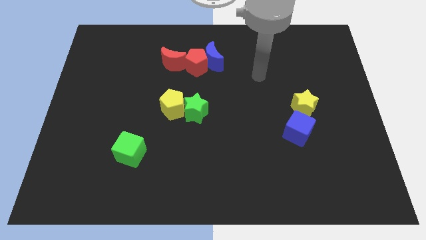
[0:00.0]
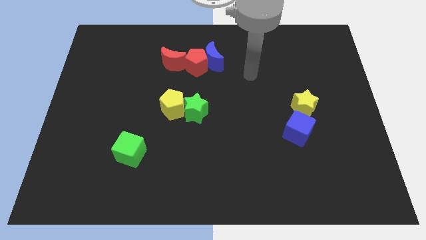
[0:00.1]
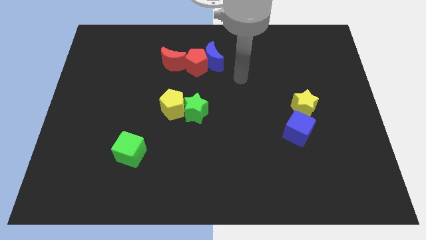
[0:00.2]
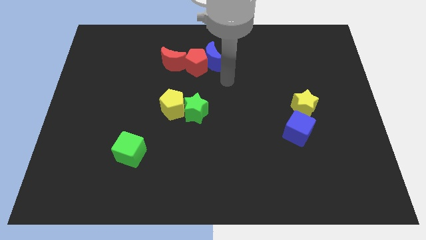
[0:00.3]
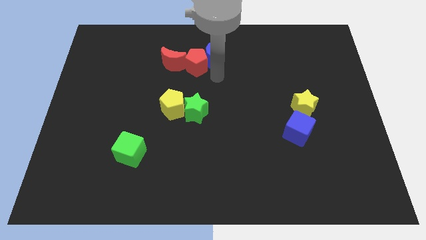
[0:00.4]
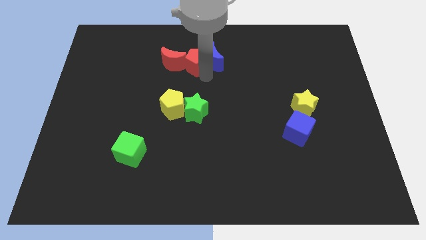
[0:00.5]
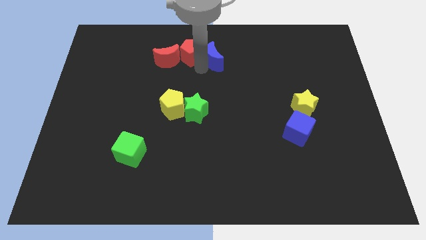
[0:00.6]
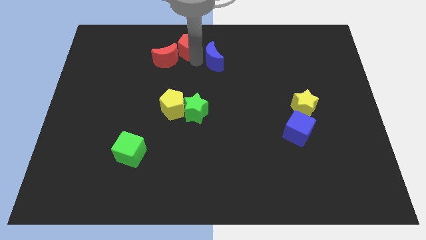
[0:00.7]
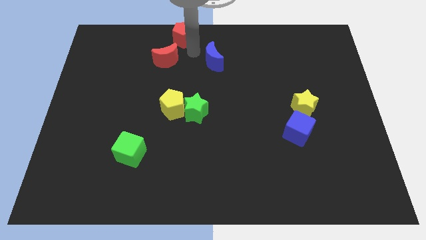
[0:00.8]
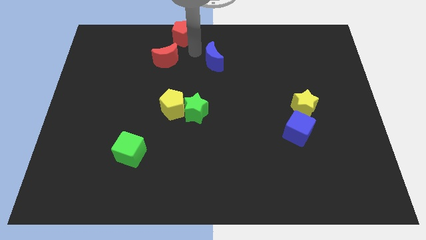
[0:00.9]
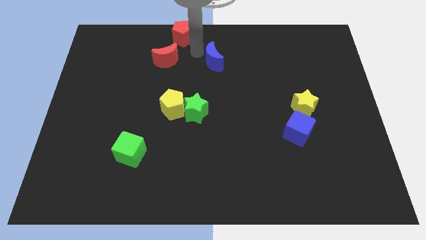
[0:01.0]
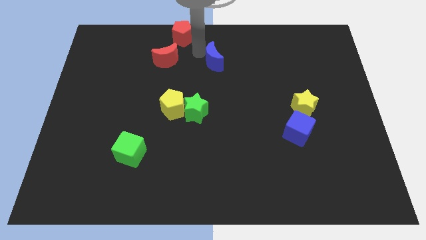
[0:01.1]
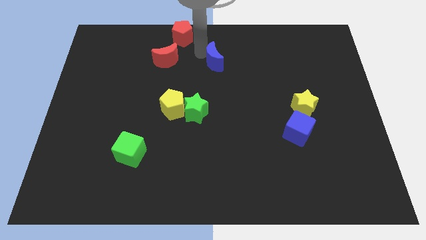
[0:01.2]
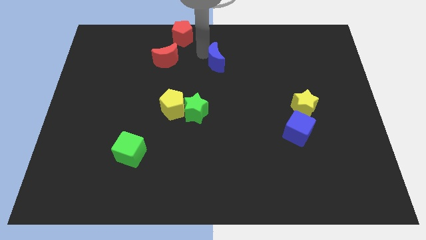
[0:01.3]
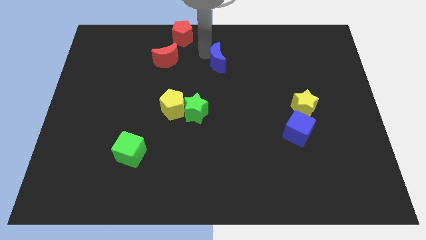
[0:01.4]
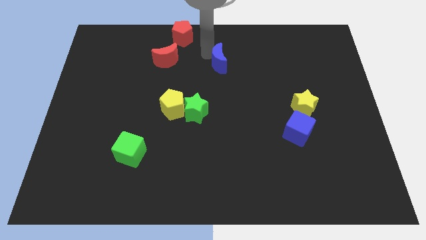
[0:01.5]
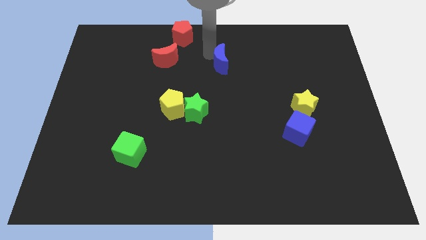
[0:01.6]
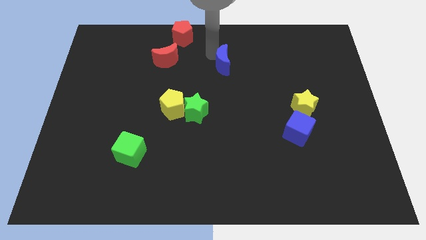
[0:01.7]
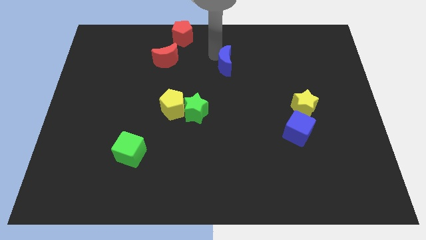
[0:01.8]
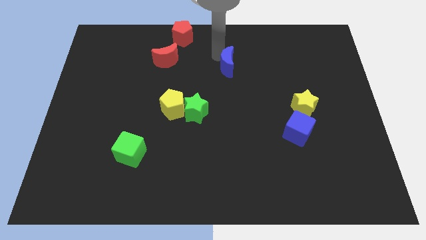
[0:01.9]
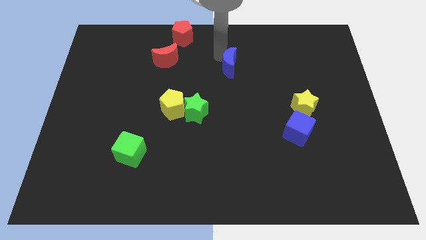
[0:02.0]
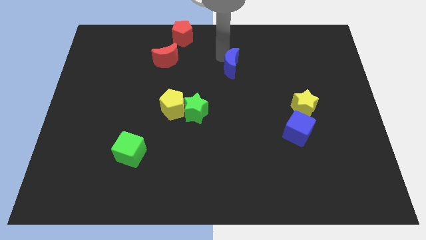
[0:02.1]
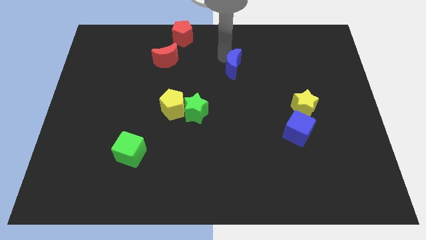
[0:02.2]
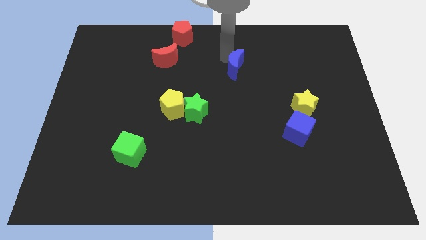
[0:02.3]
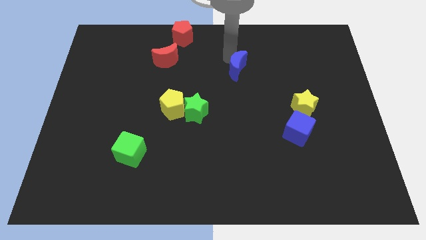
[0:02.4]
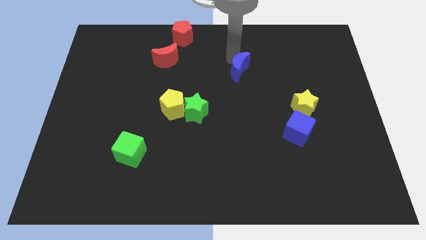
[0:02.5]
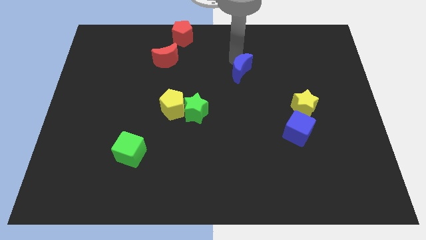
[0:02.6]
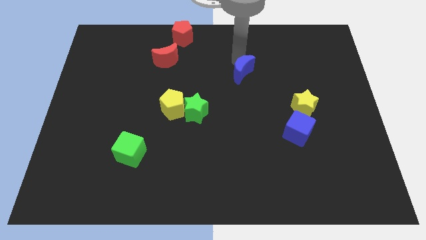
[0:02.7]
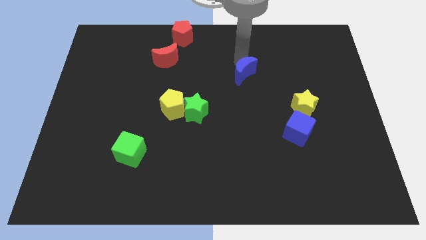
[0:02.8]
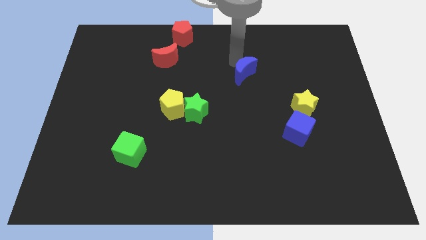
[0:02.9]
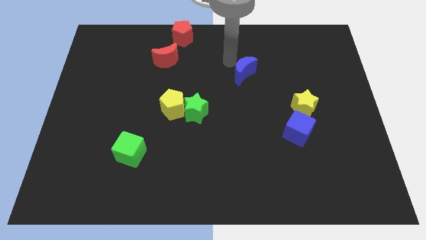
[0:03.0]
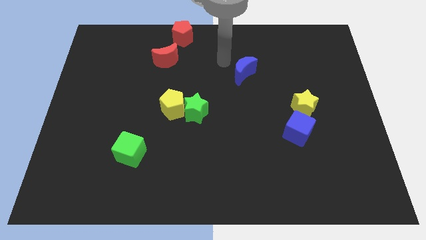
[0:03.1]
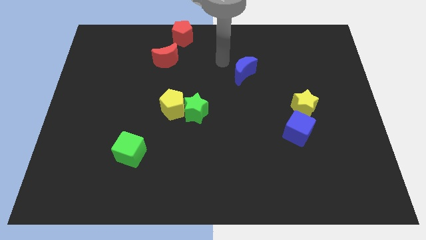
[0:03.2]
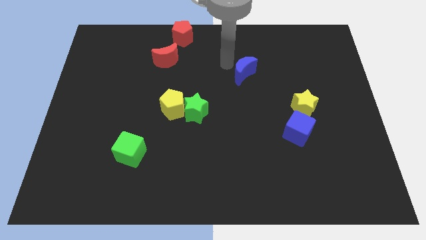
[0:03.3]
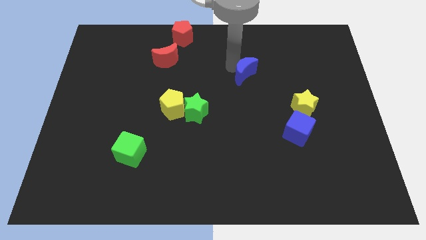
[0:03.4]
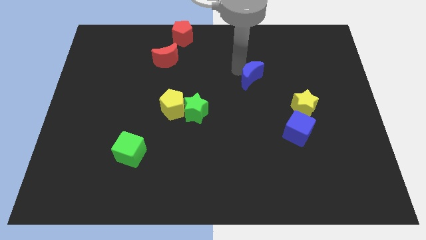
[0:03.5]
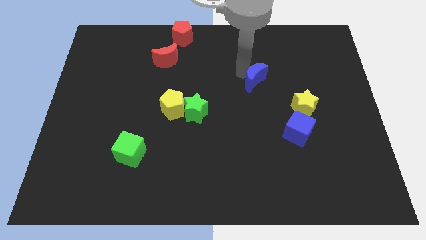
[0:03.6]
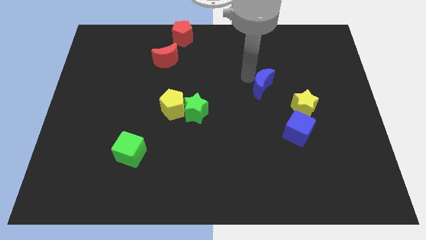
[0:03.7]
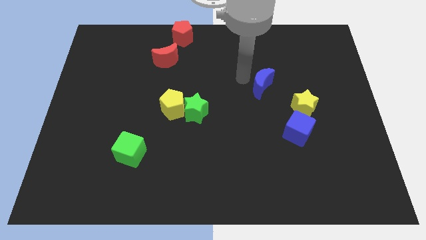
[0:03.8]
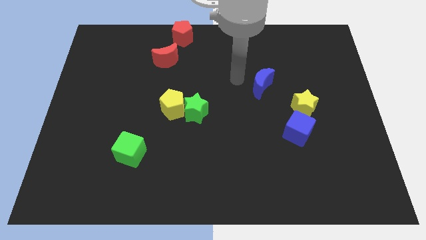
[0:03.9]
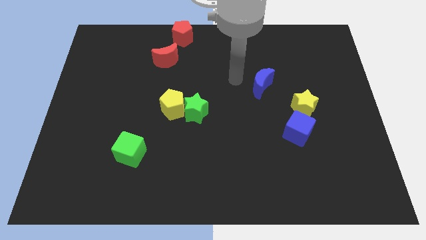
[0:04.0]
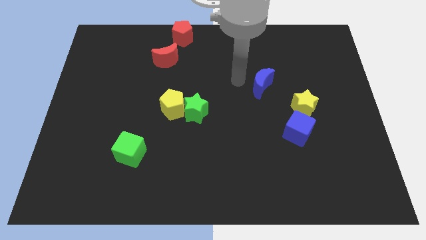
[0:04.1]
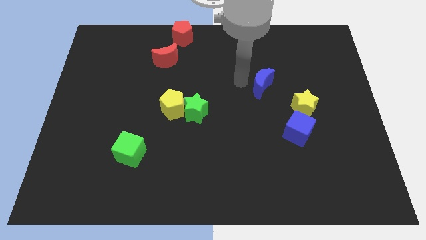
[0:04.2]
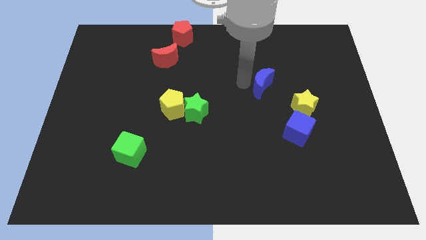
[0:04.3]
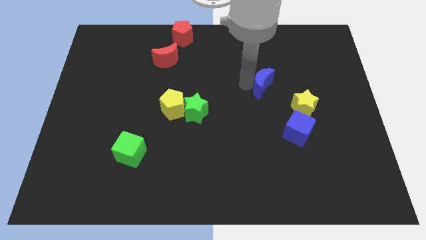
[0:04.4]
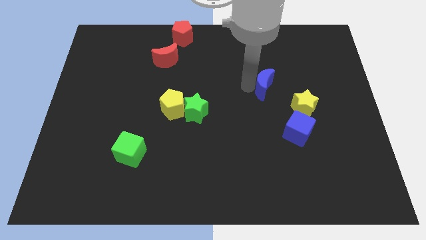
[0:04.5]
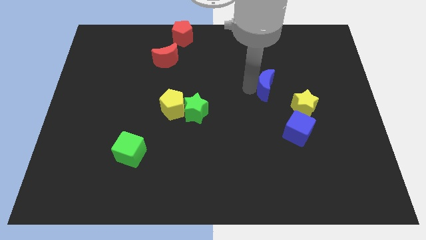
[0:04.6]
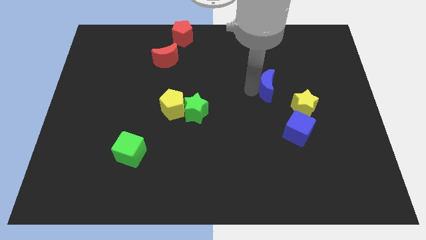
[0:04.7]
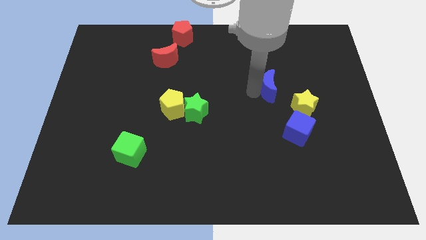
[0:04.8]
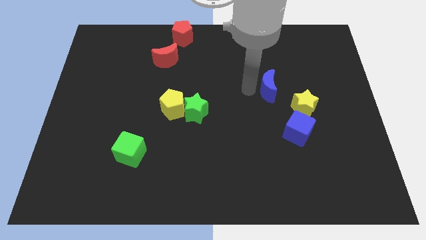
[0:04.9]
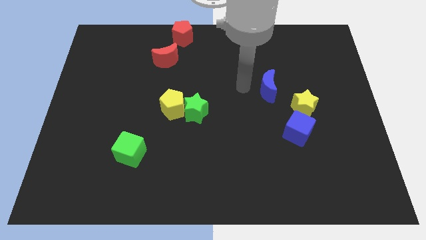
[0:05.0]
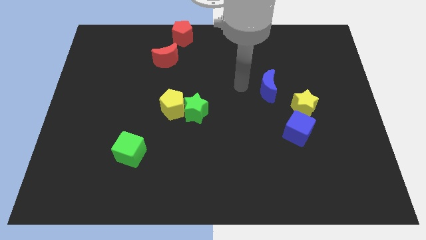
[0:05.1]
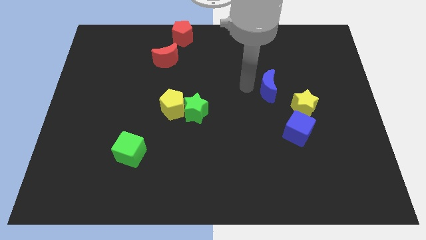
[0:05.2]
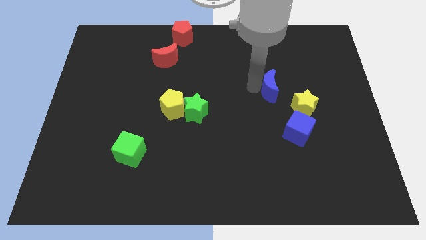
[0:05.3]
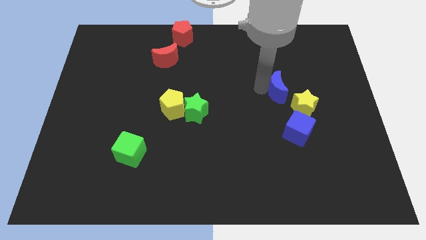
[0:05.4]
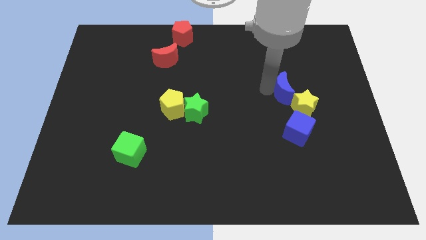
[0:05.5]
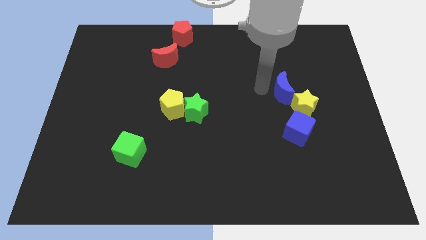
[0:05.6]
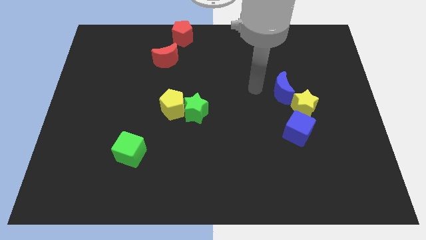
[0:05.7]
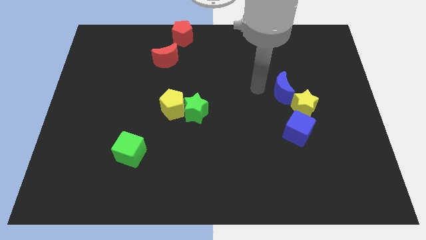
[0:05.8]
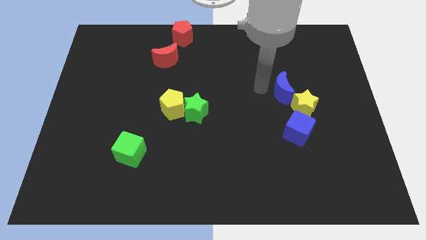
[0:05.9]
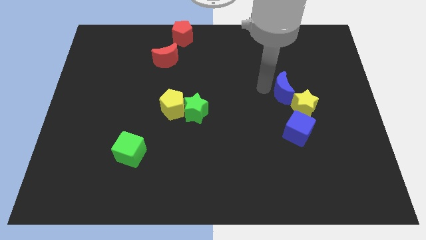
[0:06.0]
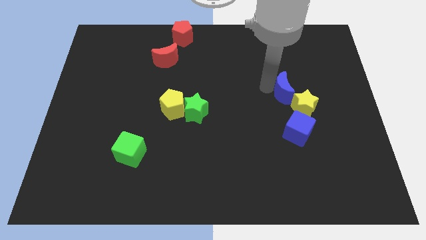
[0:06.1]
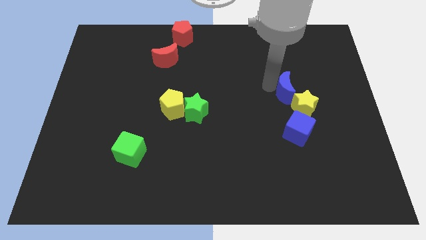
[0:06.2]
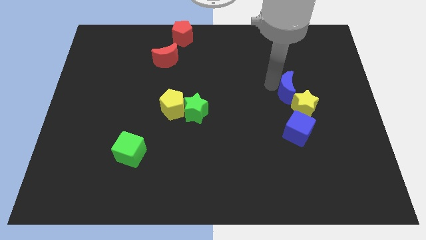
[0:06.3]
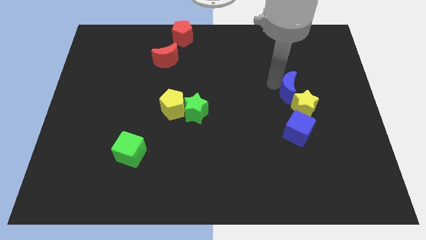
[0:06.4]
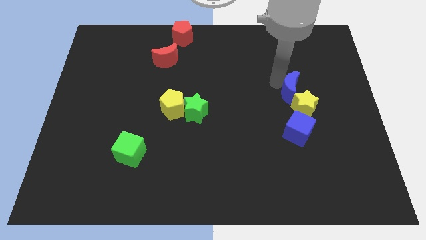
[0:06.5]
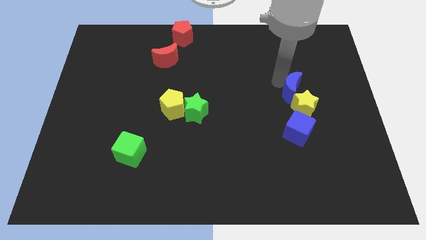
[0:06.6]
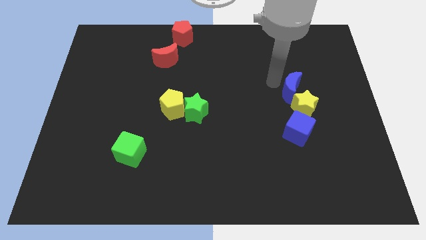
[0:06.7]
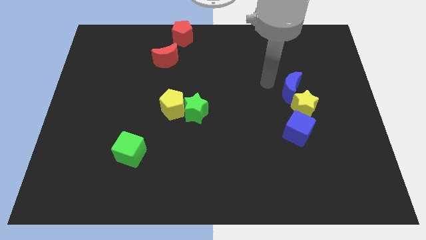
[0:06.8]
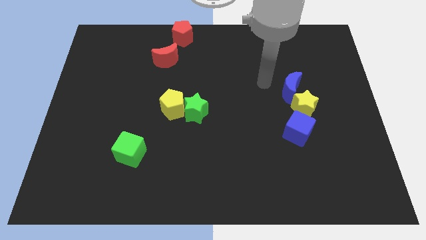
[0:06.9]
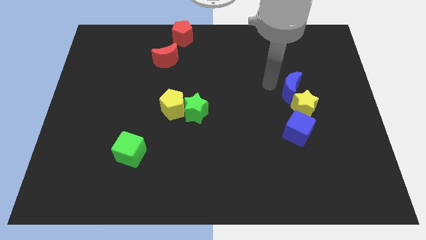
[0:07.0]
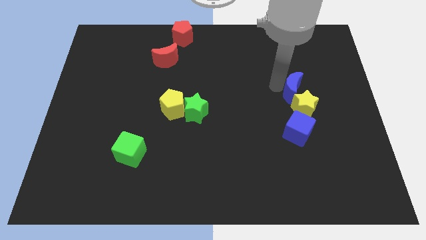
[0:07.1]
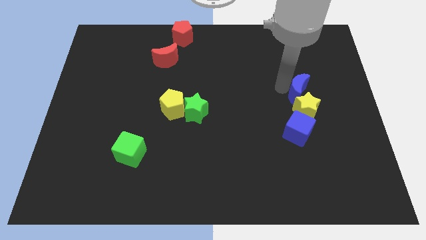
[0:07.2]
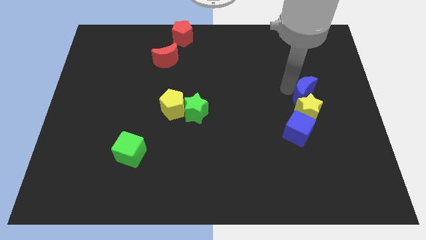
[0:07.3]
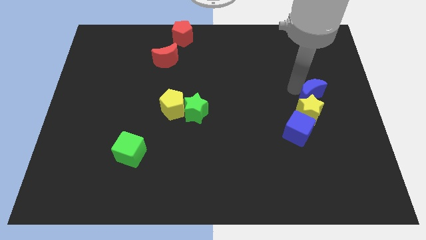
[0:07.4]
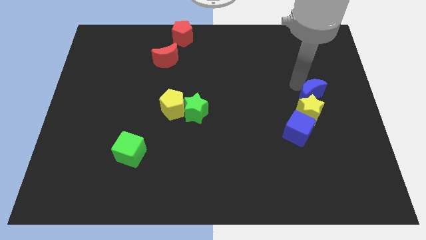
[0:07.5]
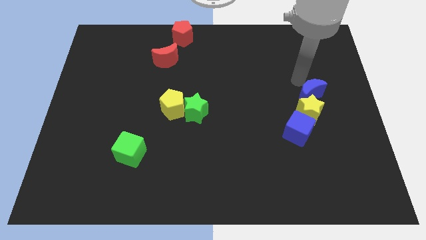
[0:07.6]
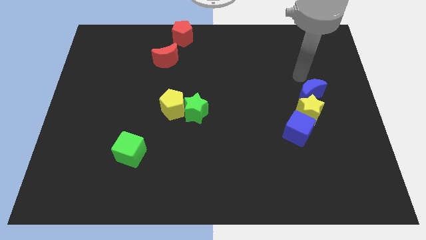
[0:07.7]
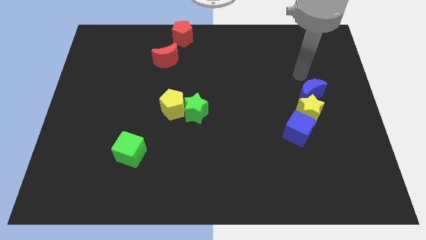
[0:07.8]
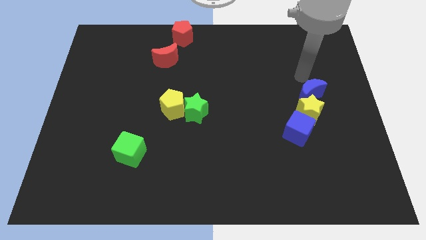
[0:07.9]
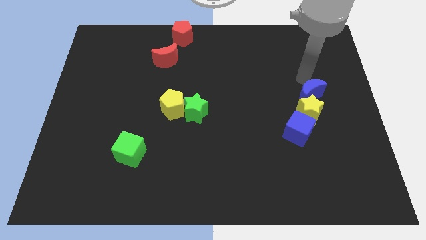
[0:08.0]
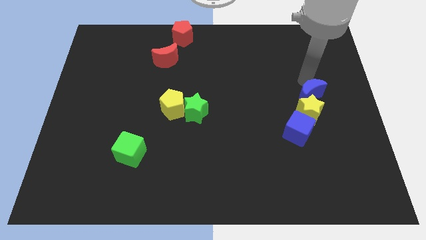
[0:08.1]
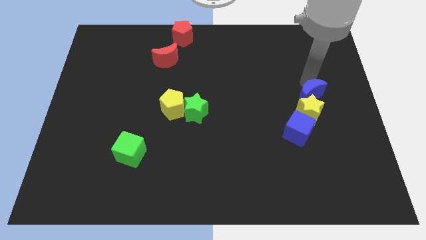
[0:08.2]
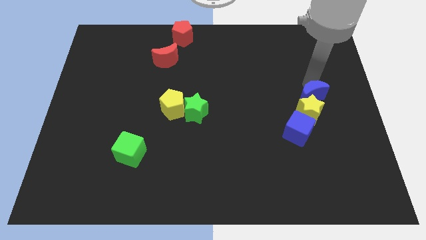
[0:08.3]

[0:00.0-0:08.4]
push the blue moon to the top right of the blue cube
